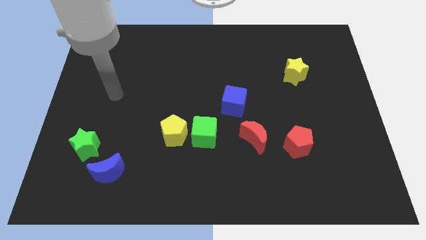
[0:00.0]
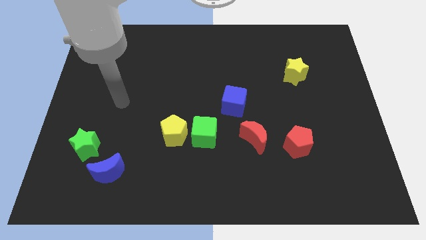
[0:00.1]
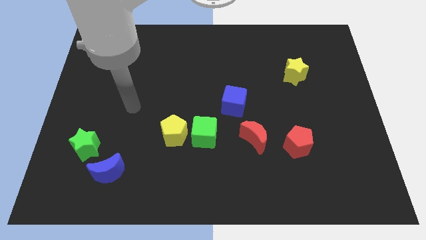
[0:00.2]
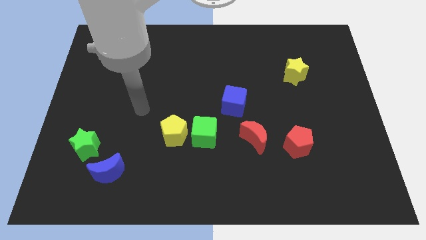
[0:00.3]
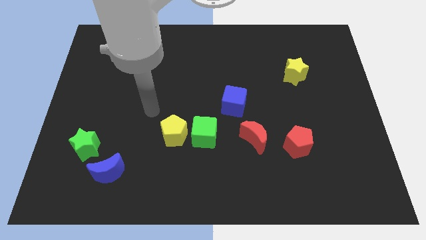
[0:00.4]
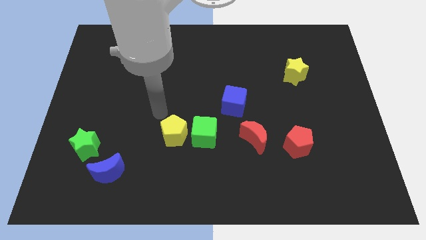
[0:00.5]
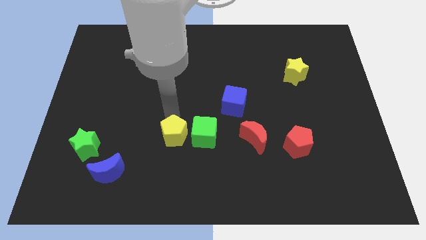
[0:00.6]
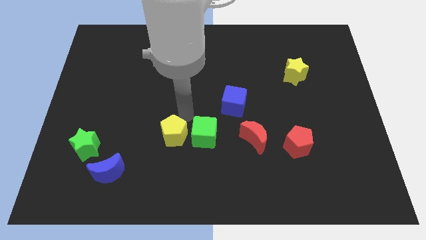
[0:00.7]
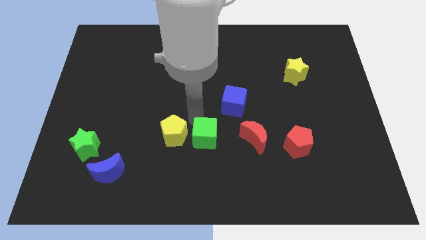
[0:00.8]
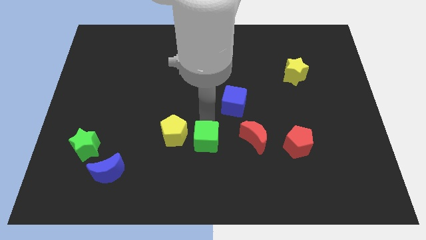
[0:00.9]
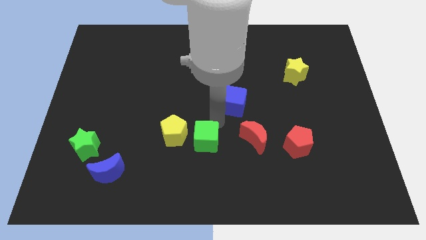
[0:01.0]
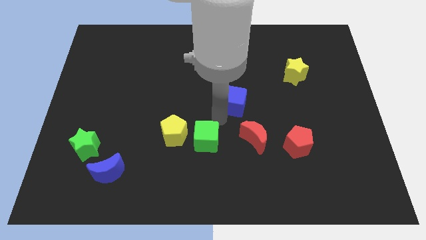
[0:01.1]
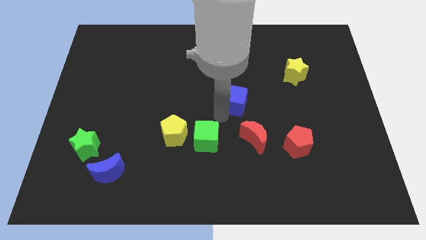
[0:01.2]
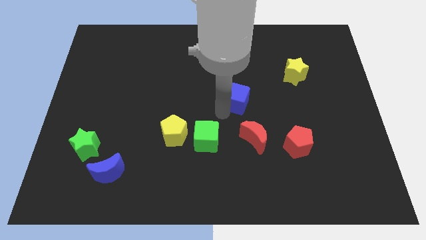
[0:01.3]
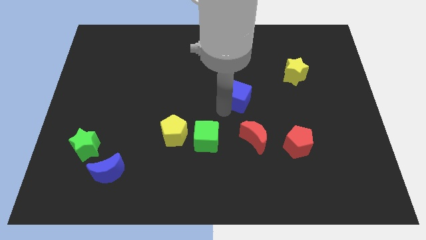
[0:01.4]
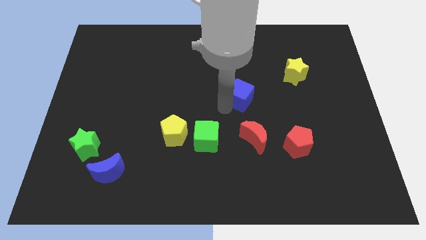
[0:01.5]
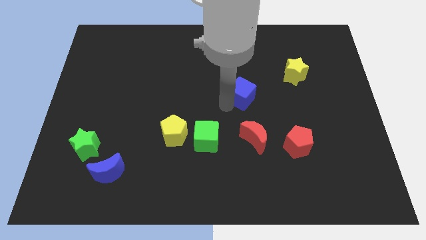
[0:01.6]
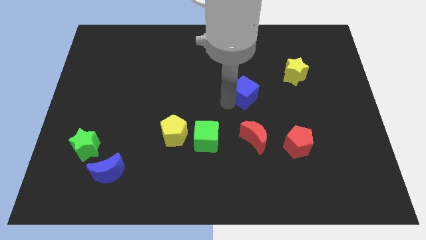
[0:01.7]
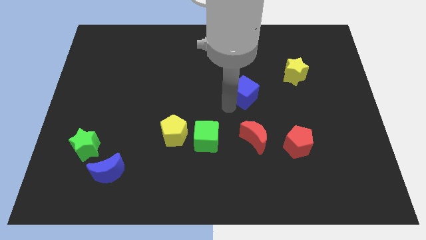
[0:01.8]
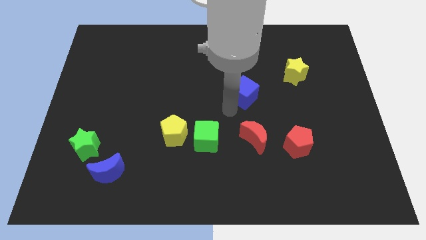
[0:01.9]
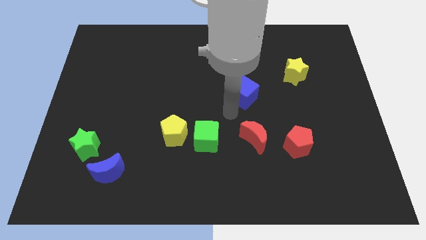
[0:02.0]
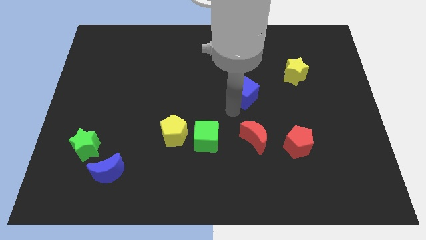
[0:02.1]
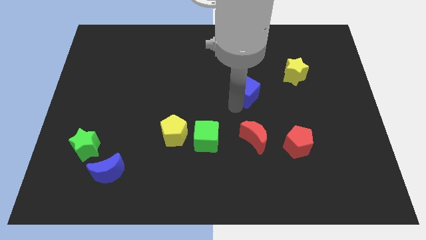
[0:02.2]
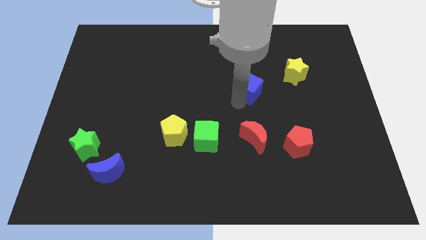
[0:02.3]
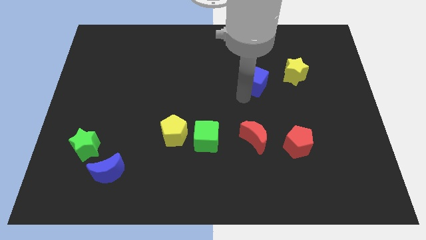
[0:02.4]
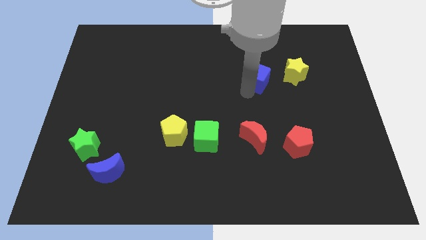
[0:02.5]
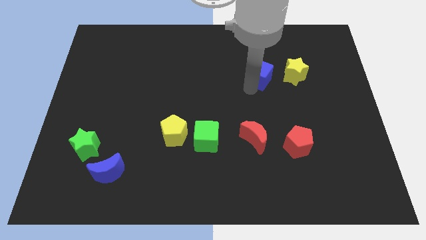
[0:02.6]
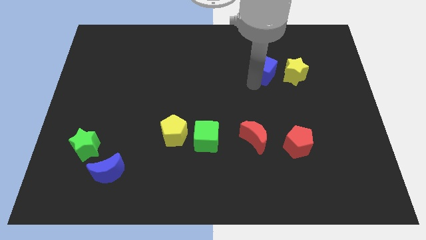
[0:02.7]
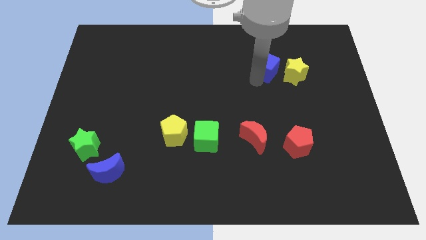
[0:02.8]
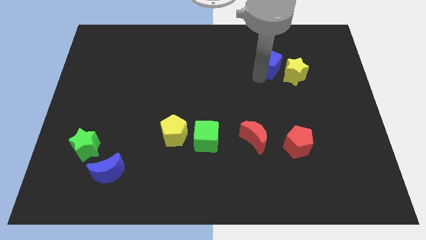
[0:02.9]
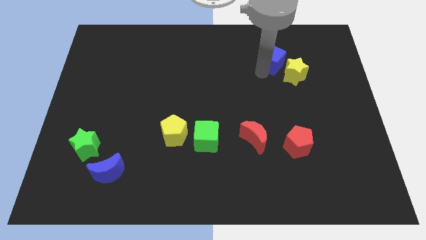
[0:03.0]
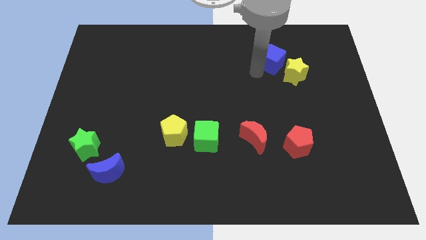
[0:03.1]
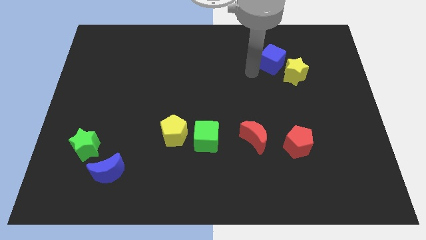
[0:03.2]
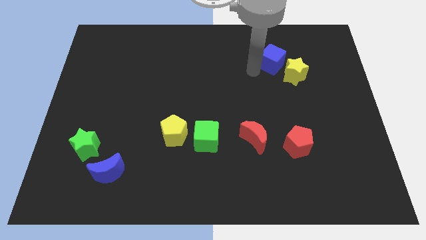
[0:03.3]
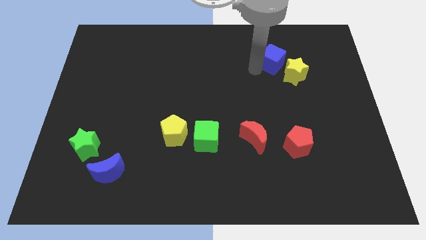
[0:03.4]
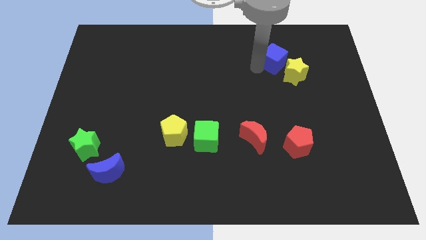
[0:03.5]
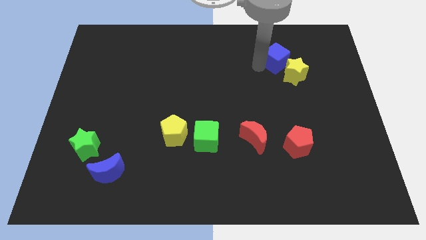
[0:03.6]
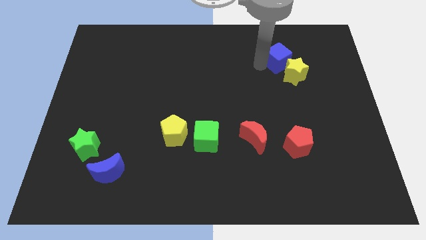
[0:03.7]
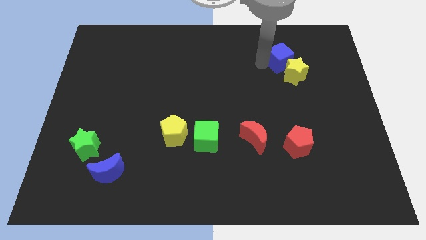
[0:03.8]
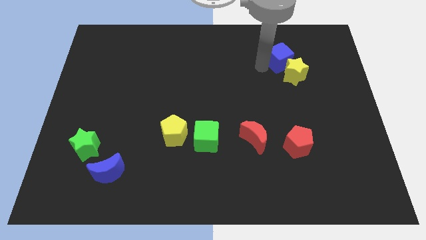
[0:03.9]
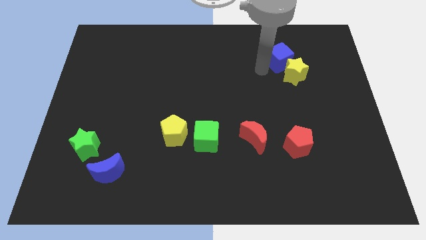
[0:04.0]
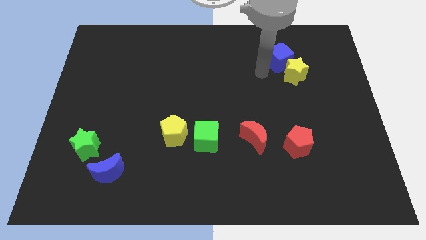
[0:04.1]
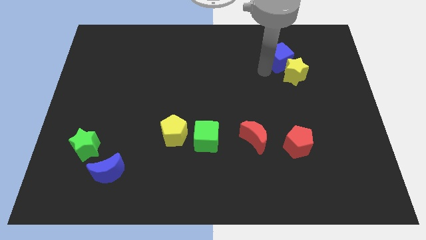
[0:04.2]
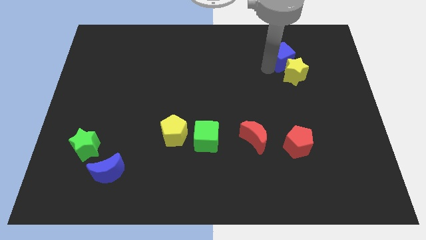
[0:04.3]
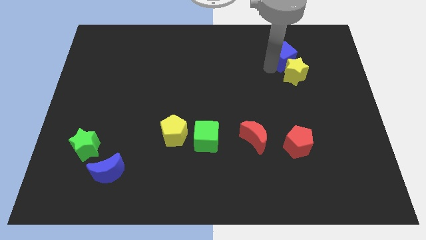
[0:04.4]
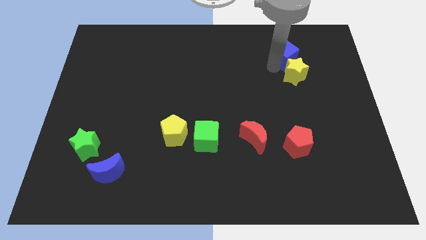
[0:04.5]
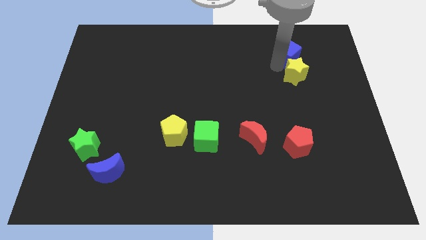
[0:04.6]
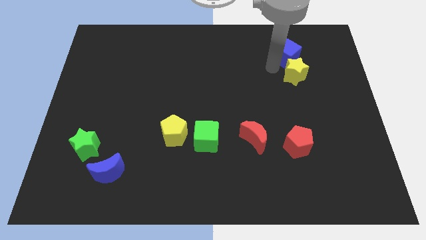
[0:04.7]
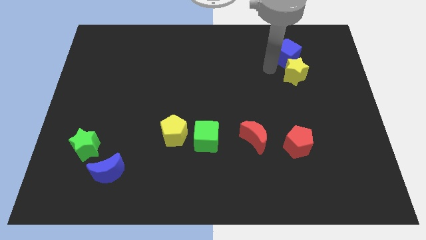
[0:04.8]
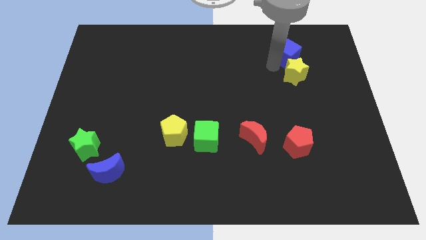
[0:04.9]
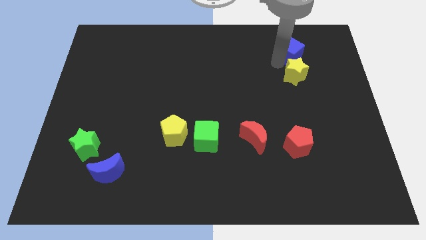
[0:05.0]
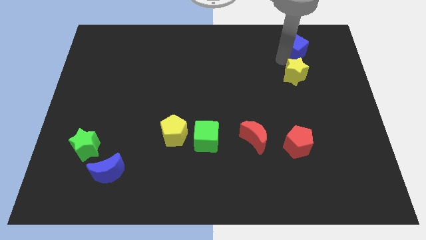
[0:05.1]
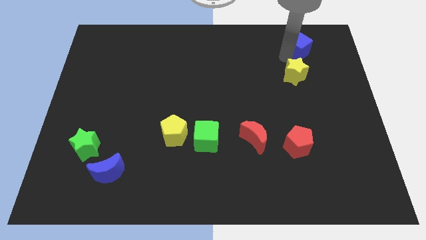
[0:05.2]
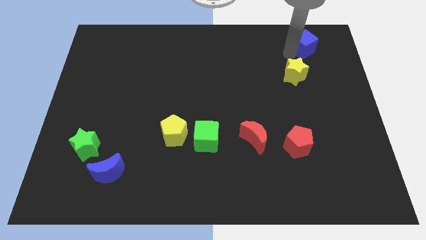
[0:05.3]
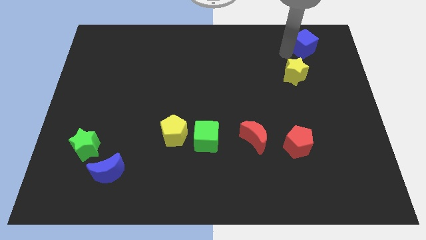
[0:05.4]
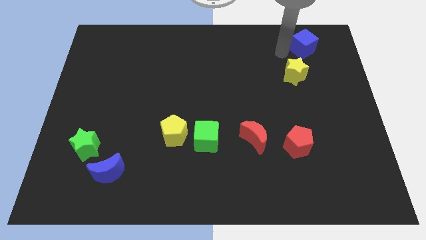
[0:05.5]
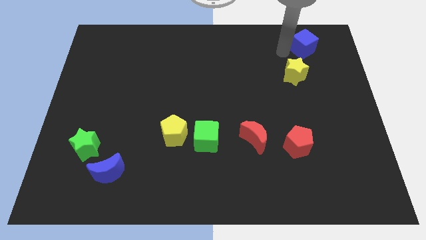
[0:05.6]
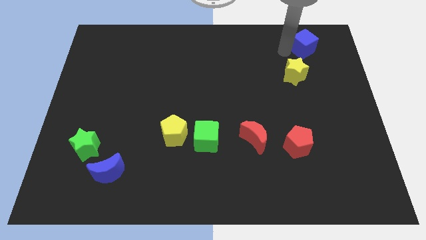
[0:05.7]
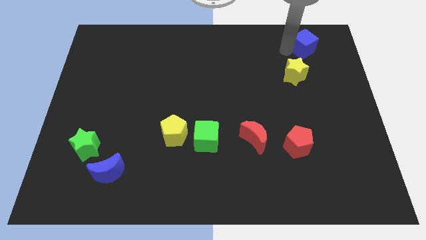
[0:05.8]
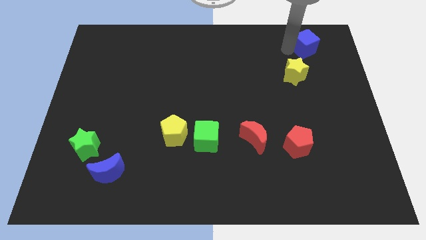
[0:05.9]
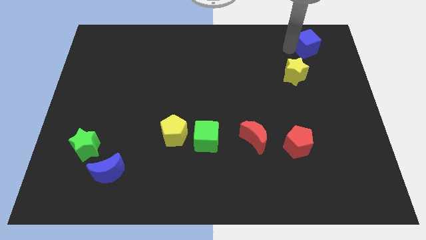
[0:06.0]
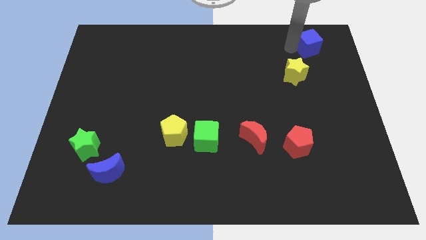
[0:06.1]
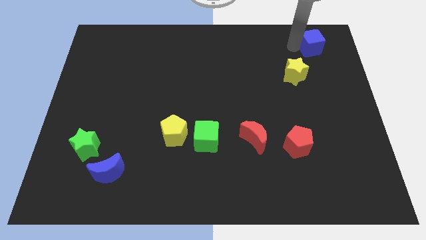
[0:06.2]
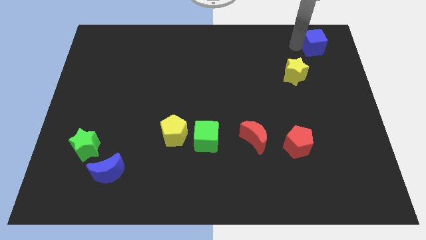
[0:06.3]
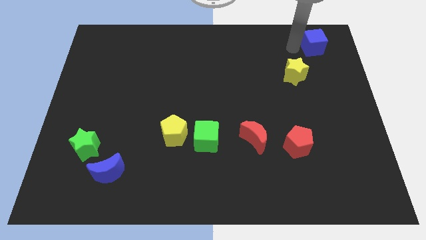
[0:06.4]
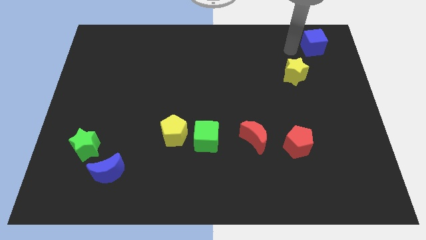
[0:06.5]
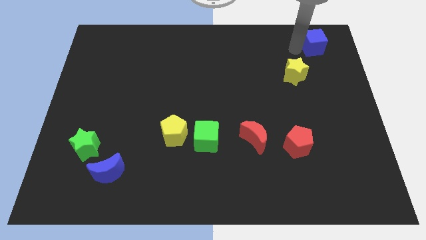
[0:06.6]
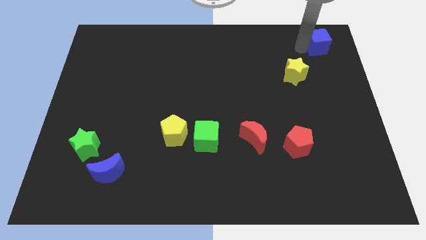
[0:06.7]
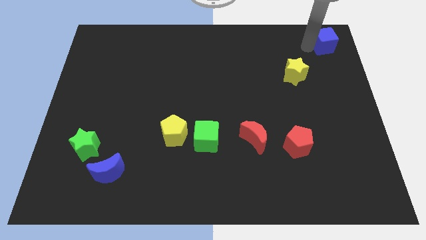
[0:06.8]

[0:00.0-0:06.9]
slide the blue cube to the upper right corner

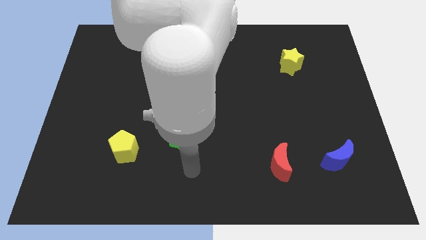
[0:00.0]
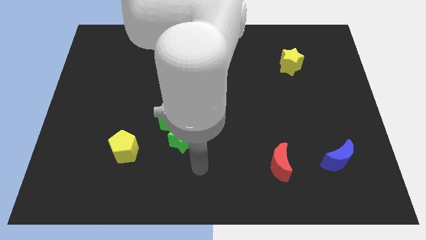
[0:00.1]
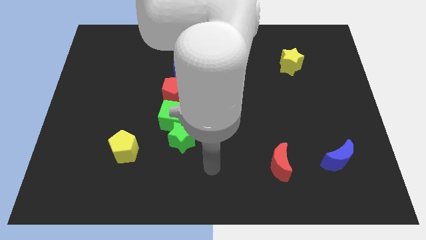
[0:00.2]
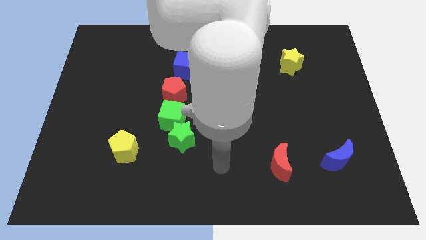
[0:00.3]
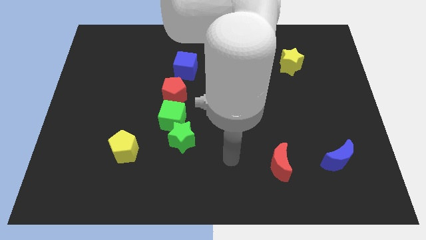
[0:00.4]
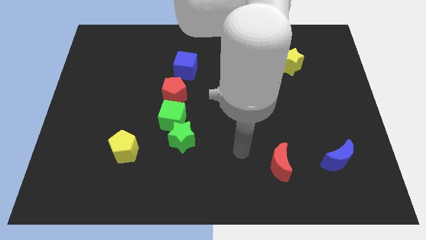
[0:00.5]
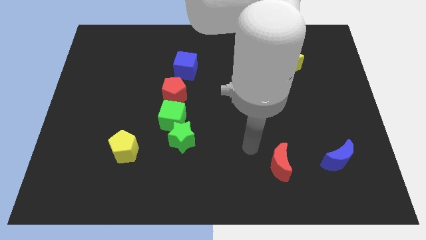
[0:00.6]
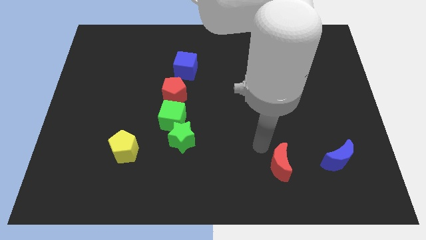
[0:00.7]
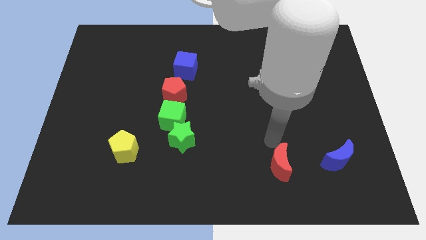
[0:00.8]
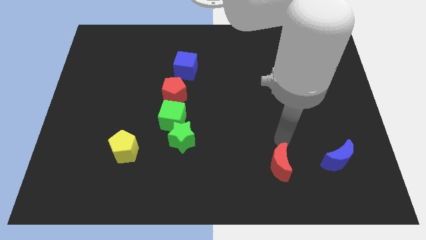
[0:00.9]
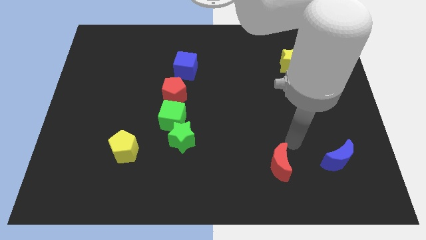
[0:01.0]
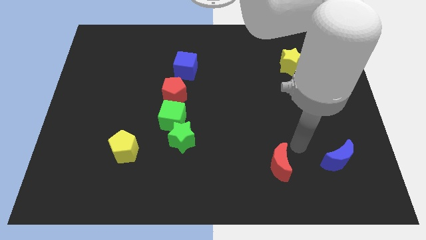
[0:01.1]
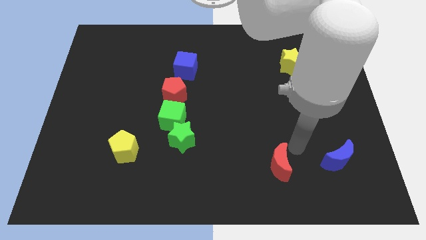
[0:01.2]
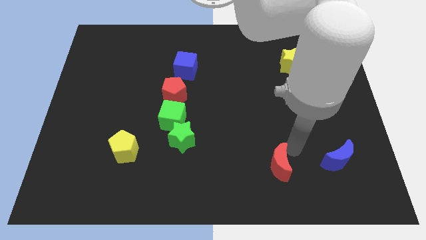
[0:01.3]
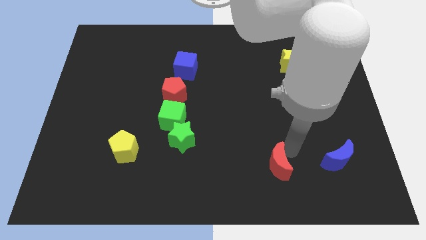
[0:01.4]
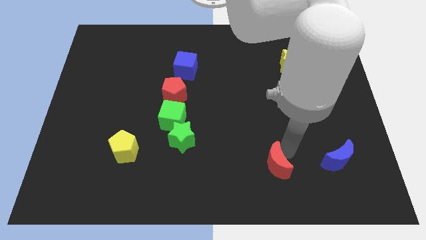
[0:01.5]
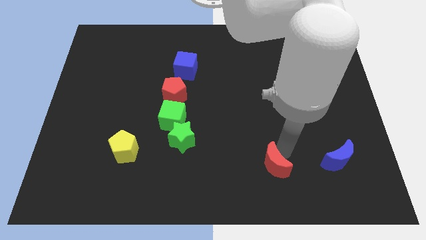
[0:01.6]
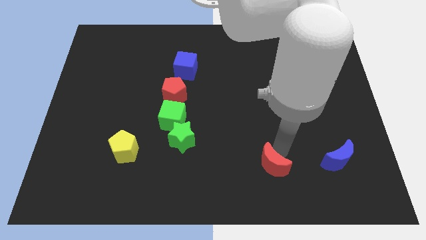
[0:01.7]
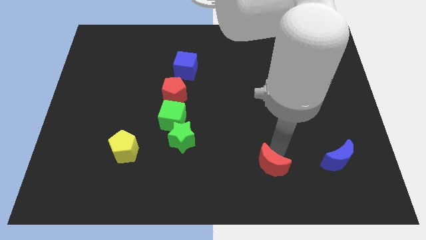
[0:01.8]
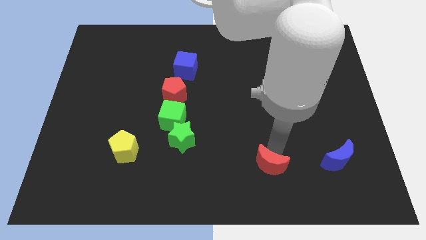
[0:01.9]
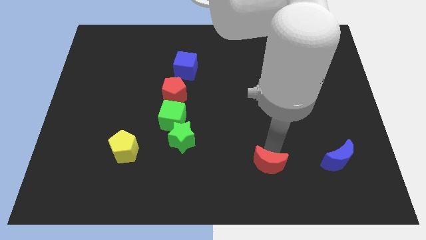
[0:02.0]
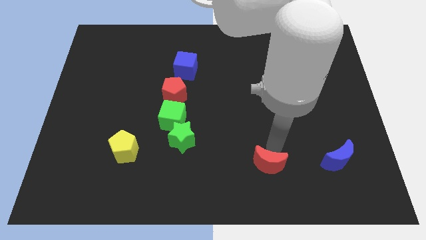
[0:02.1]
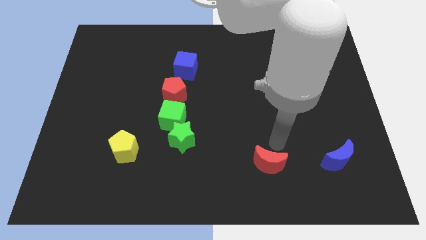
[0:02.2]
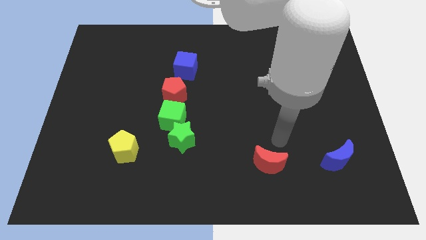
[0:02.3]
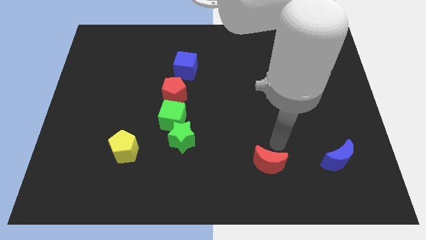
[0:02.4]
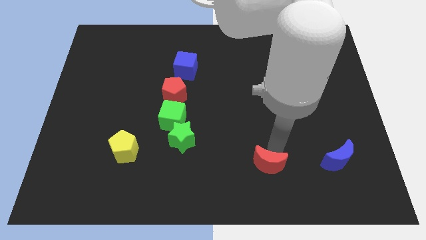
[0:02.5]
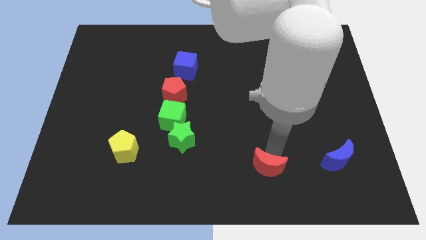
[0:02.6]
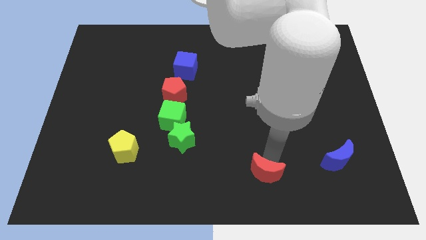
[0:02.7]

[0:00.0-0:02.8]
push the red moon to the bottom
